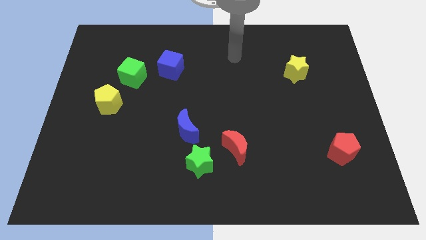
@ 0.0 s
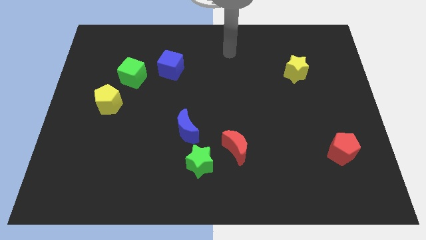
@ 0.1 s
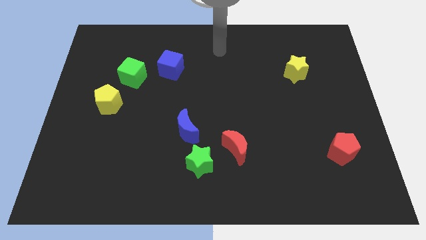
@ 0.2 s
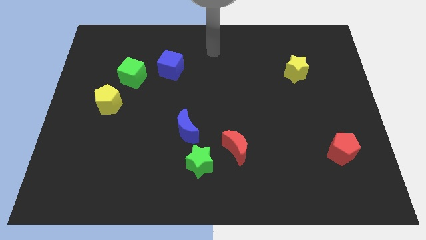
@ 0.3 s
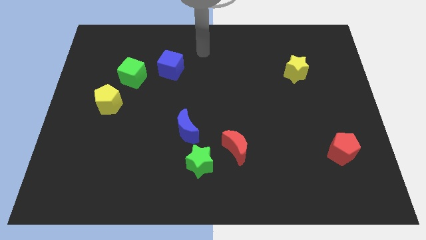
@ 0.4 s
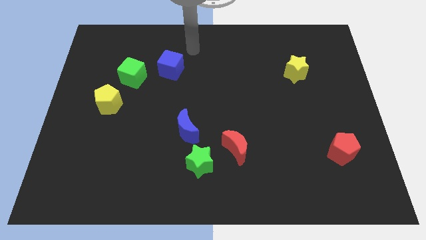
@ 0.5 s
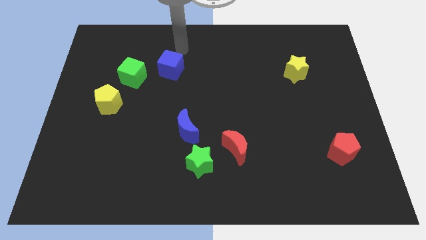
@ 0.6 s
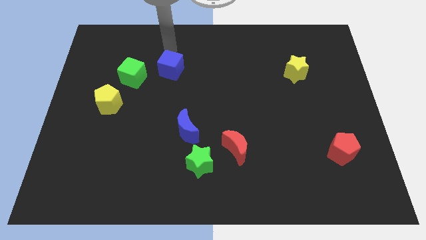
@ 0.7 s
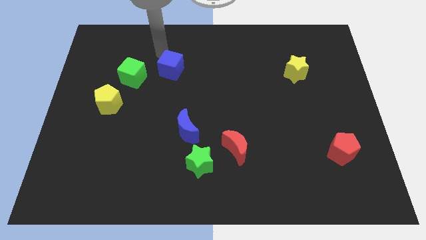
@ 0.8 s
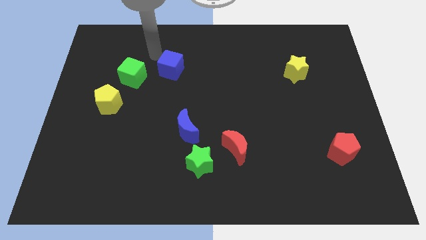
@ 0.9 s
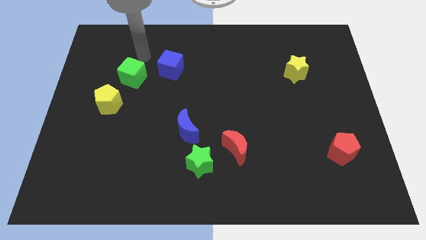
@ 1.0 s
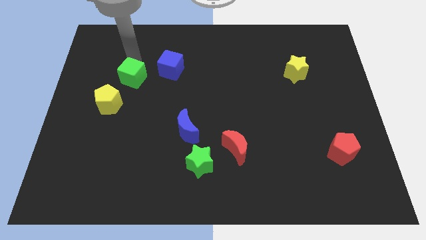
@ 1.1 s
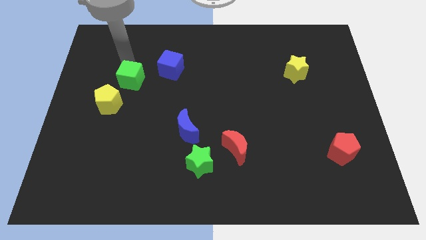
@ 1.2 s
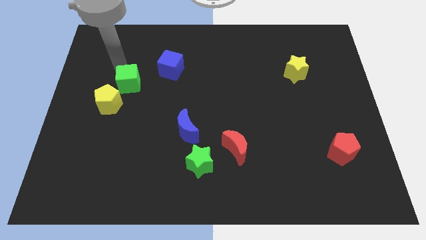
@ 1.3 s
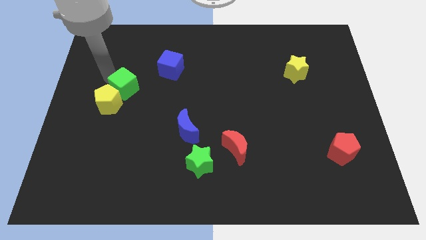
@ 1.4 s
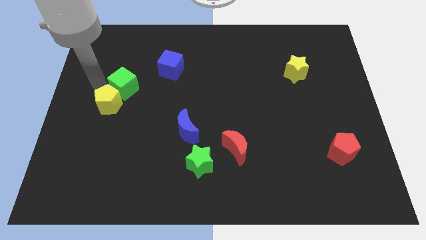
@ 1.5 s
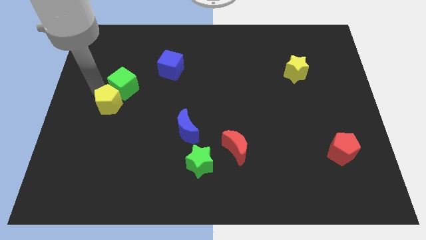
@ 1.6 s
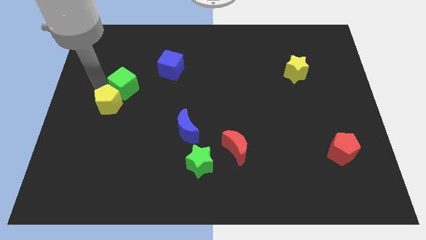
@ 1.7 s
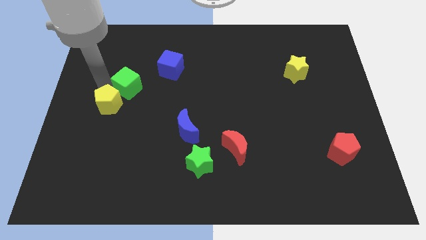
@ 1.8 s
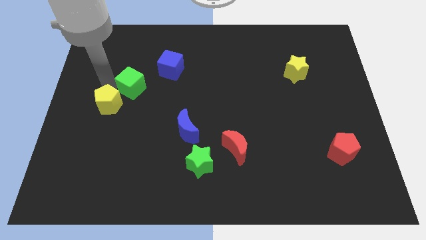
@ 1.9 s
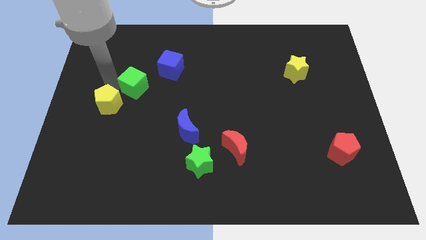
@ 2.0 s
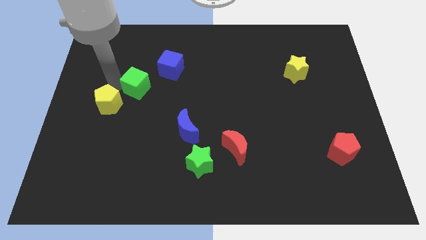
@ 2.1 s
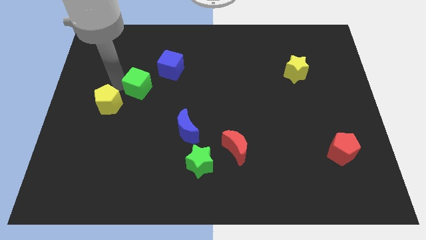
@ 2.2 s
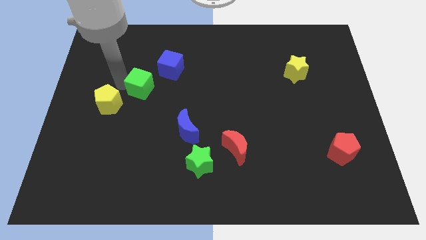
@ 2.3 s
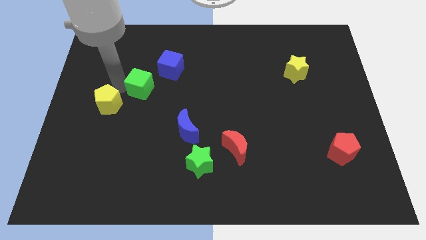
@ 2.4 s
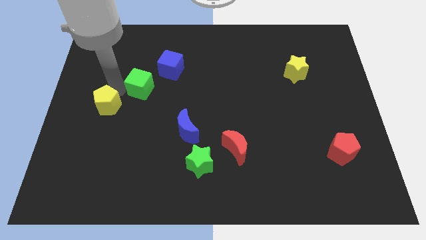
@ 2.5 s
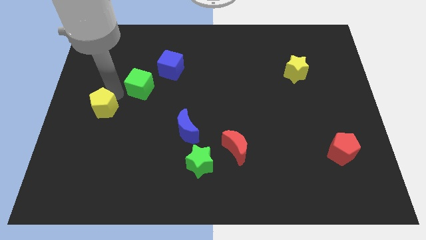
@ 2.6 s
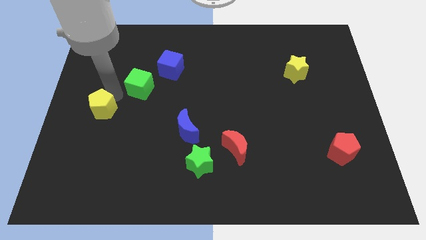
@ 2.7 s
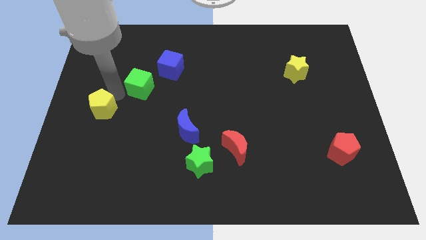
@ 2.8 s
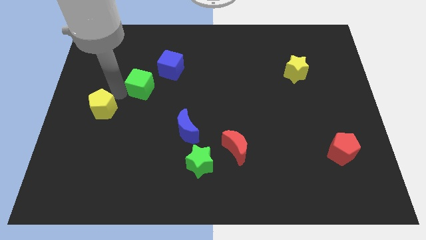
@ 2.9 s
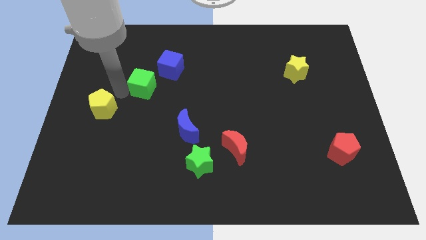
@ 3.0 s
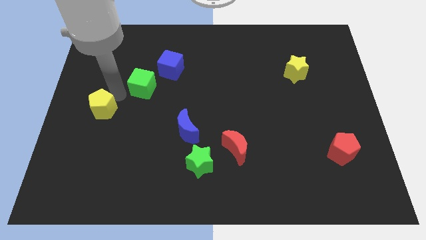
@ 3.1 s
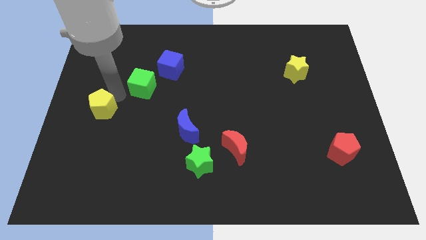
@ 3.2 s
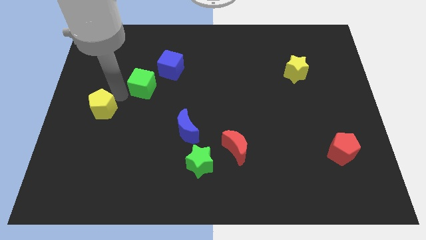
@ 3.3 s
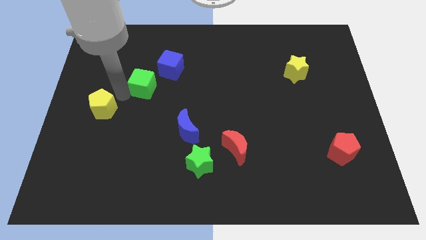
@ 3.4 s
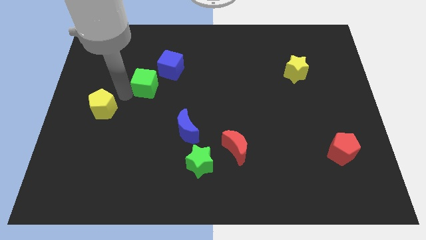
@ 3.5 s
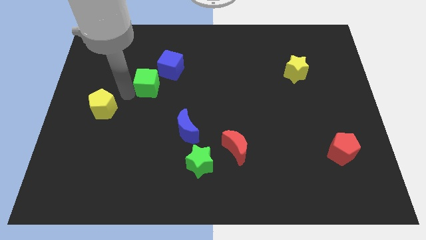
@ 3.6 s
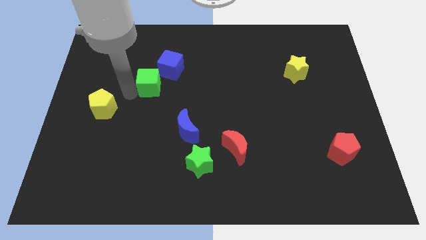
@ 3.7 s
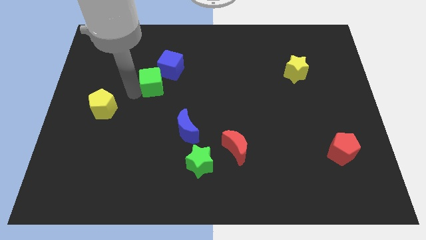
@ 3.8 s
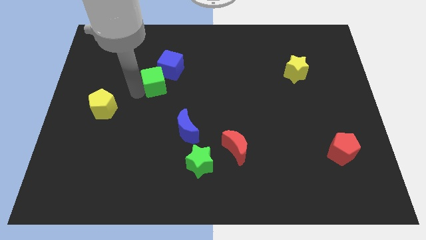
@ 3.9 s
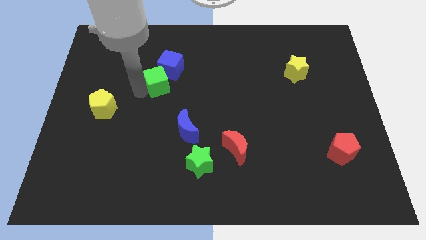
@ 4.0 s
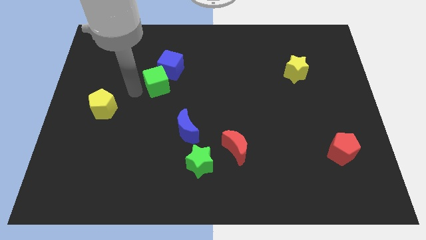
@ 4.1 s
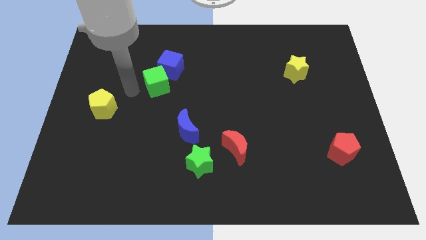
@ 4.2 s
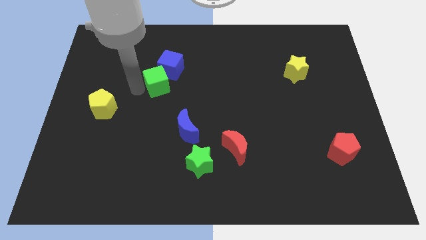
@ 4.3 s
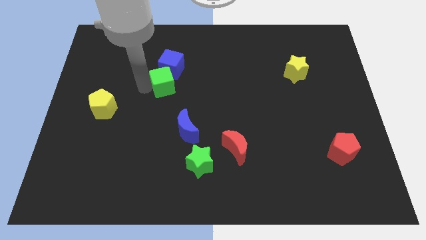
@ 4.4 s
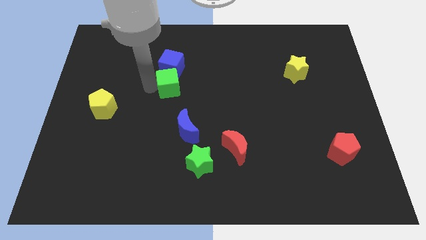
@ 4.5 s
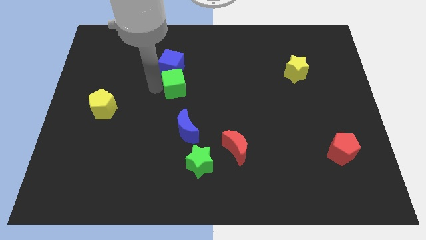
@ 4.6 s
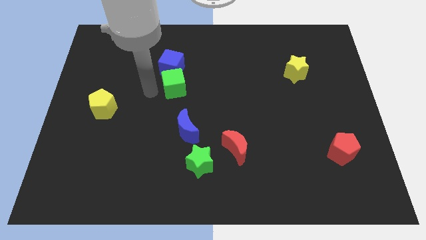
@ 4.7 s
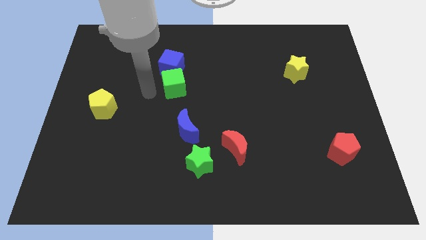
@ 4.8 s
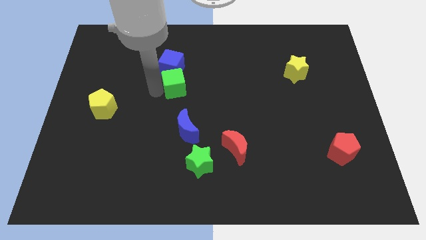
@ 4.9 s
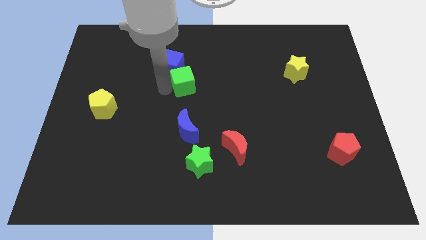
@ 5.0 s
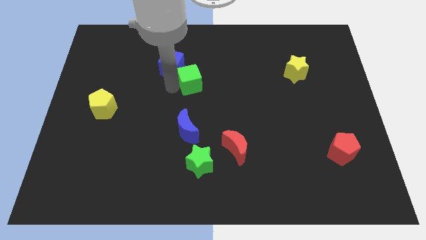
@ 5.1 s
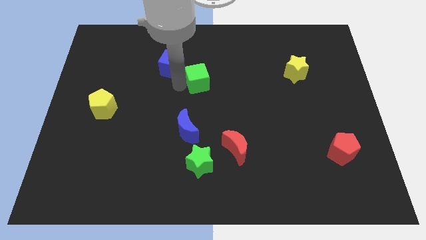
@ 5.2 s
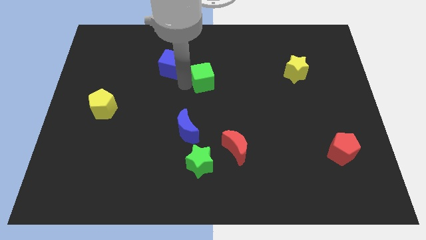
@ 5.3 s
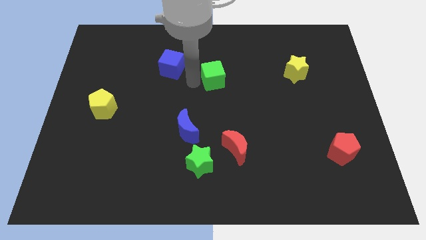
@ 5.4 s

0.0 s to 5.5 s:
slide the green cube to the right

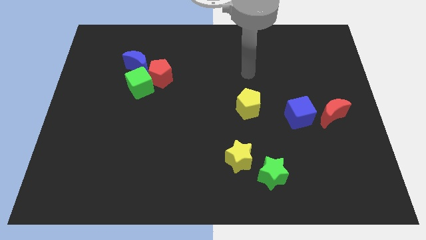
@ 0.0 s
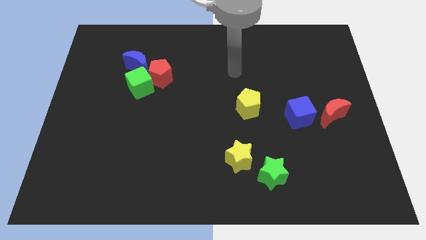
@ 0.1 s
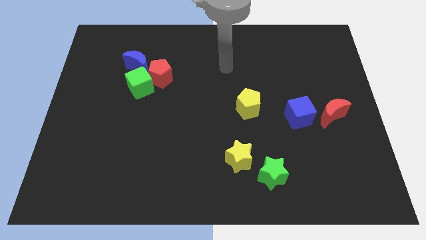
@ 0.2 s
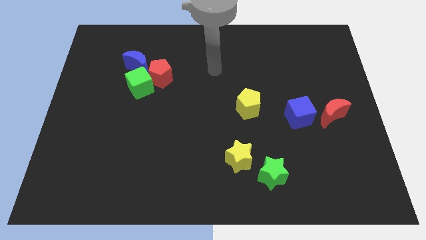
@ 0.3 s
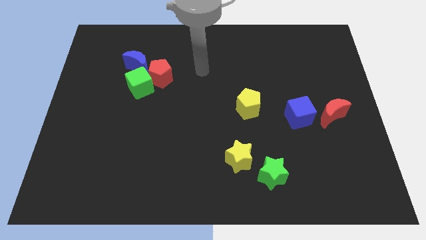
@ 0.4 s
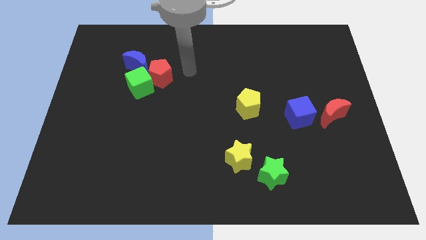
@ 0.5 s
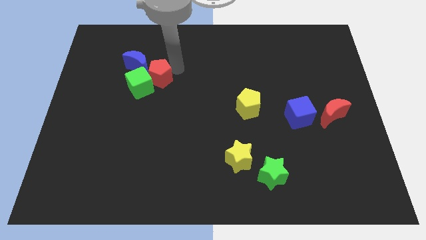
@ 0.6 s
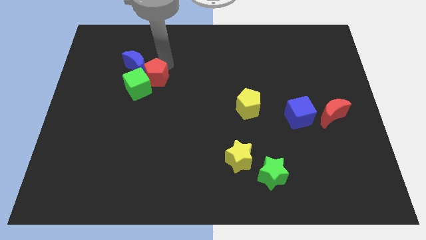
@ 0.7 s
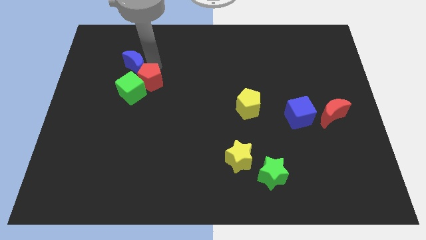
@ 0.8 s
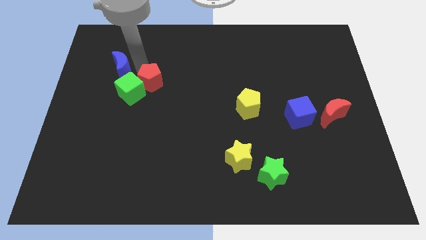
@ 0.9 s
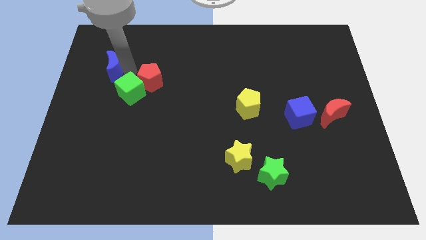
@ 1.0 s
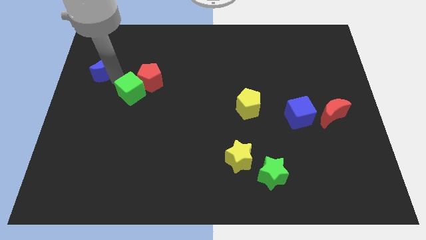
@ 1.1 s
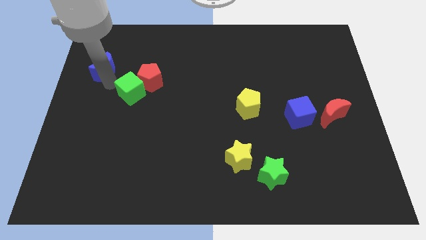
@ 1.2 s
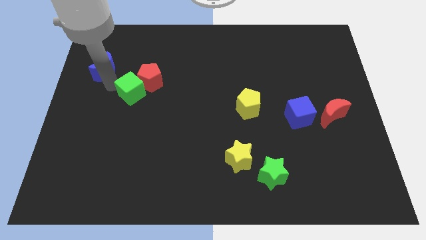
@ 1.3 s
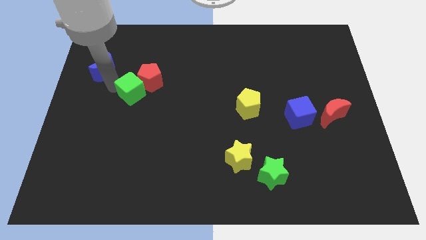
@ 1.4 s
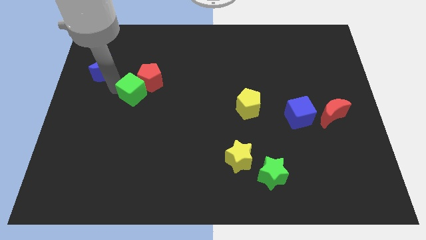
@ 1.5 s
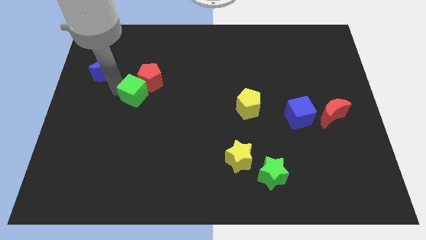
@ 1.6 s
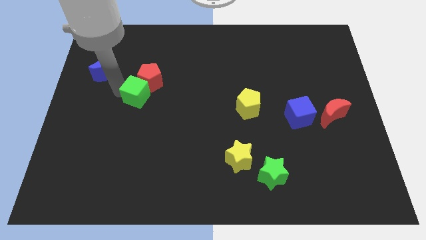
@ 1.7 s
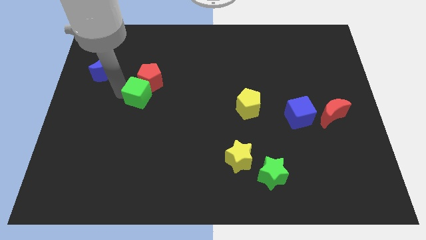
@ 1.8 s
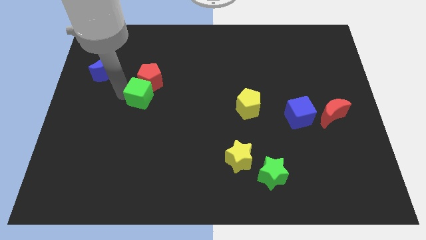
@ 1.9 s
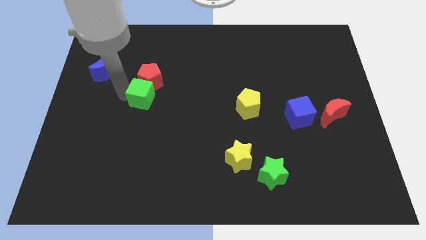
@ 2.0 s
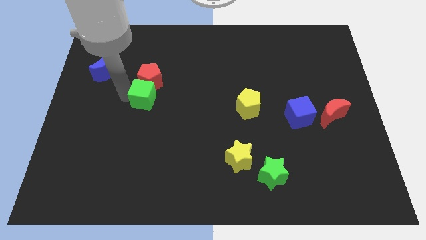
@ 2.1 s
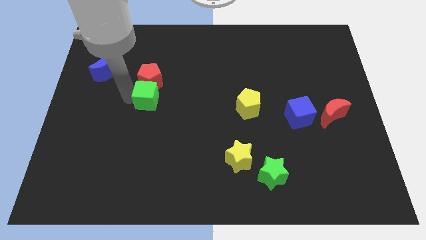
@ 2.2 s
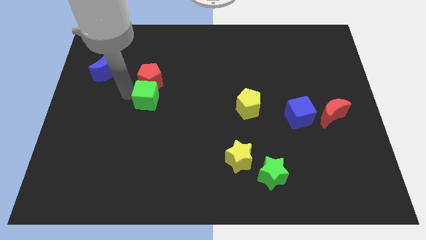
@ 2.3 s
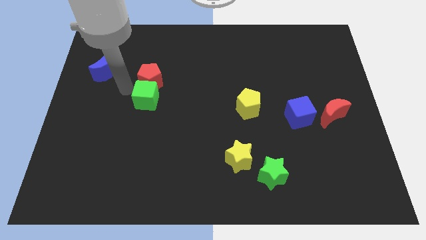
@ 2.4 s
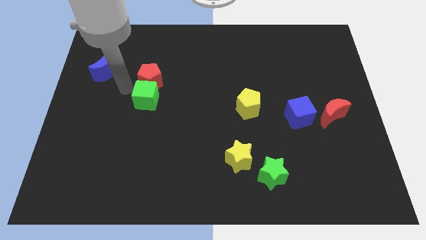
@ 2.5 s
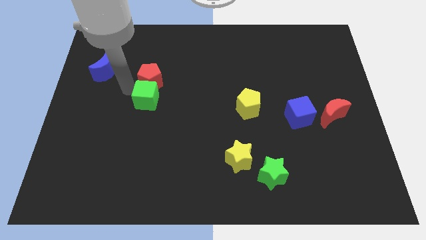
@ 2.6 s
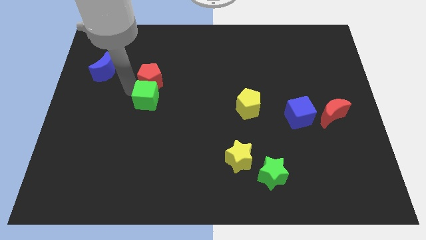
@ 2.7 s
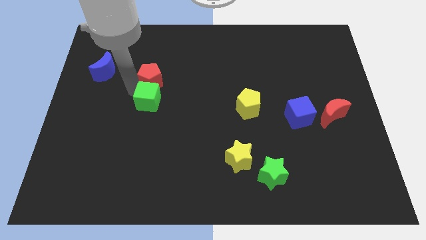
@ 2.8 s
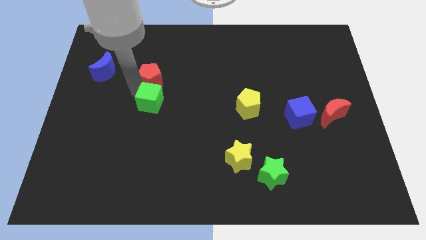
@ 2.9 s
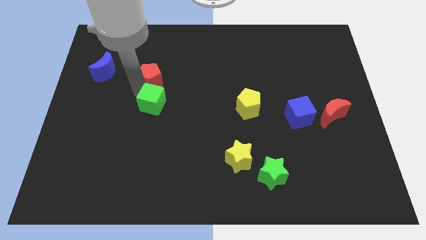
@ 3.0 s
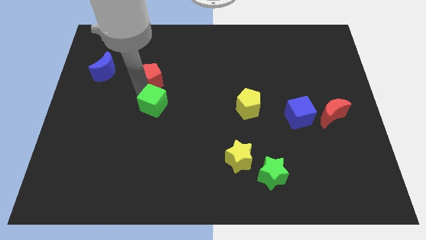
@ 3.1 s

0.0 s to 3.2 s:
move the green cube somewhat diagonally down and to the right
